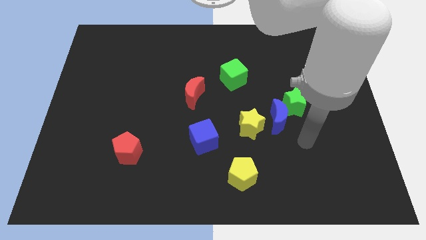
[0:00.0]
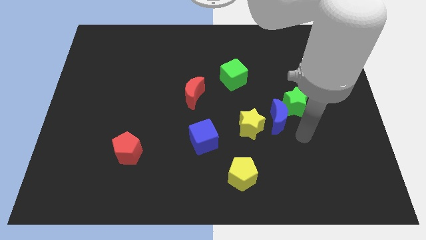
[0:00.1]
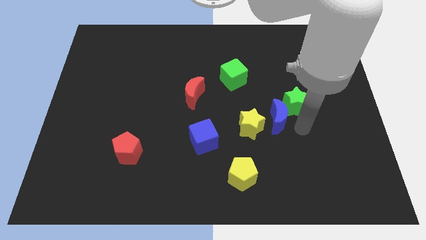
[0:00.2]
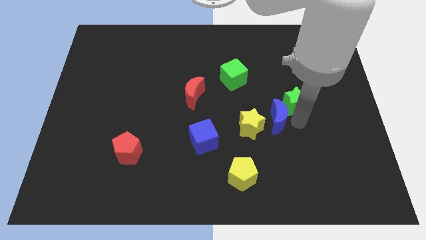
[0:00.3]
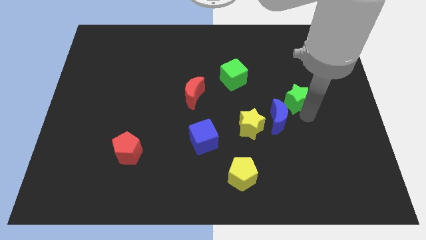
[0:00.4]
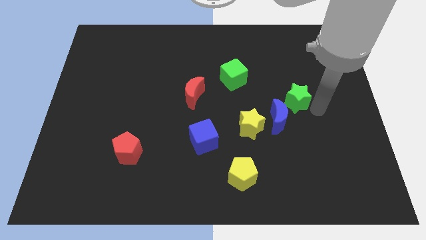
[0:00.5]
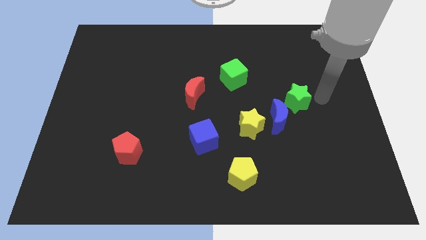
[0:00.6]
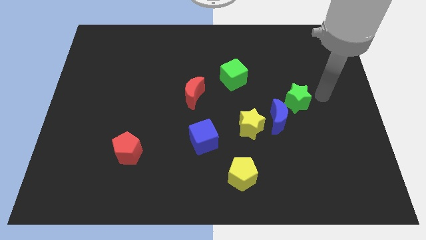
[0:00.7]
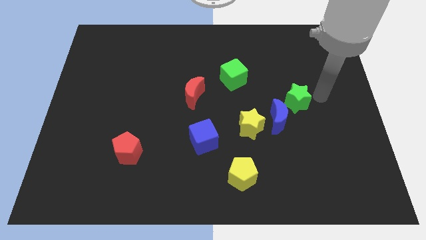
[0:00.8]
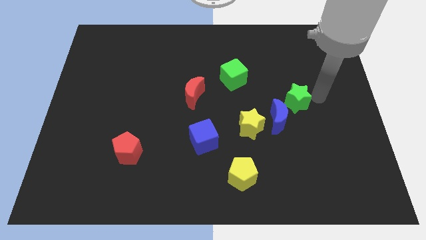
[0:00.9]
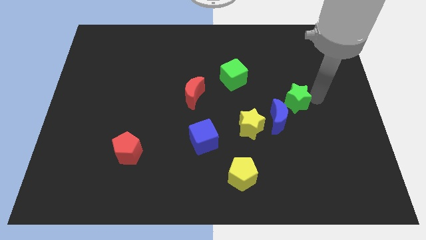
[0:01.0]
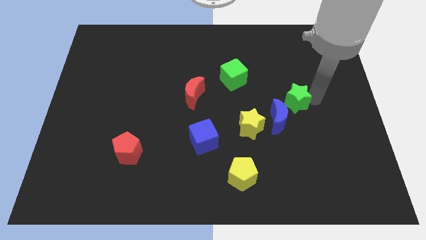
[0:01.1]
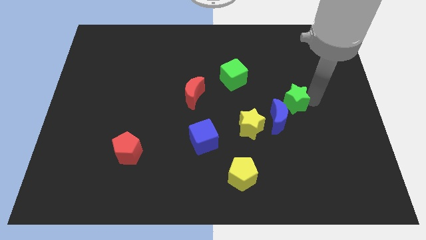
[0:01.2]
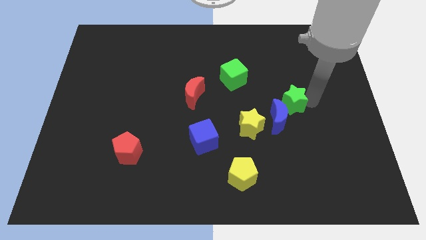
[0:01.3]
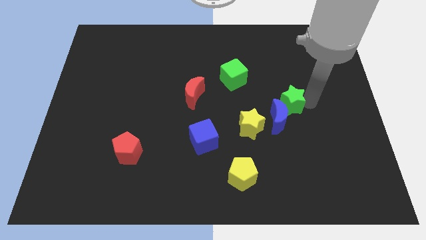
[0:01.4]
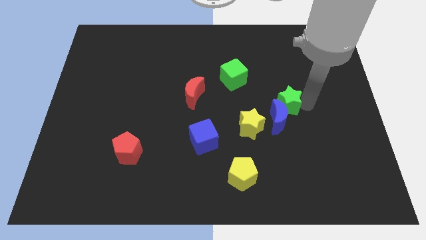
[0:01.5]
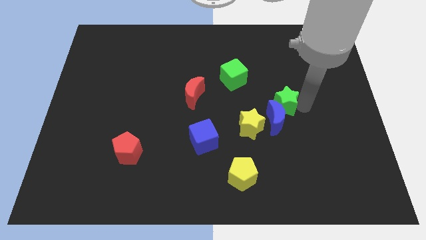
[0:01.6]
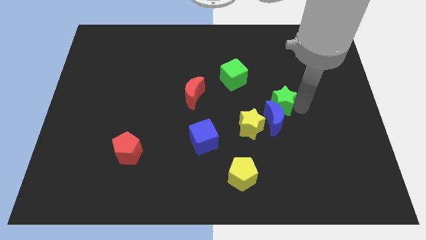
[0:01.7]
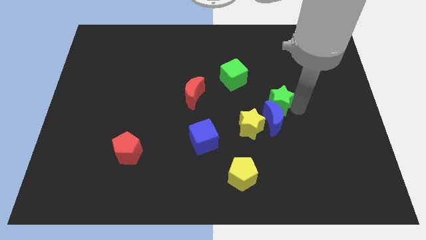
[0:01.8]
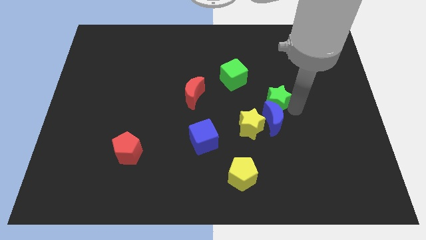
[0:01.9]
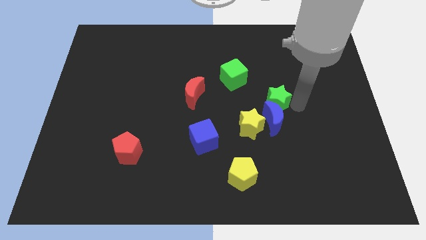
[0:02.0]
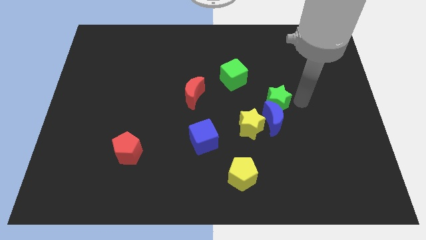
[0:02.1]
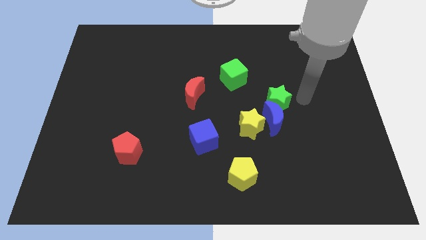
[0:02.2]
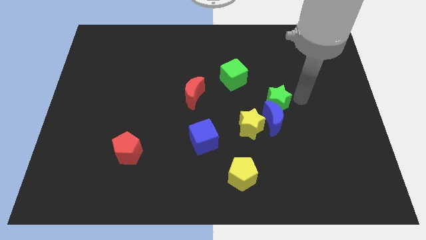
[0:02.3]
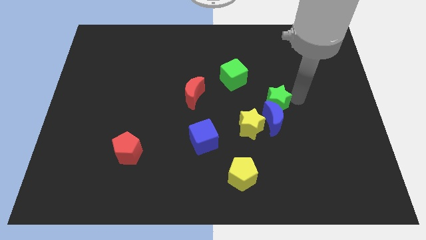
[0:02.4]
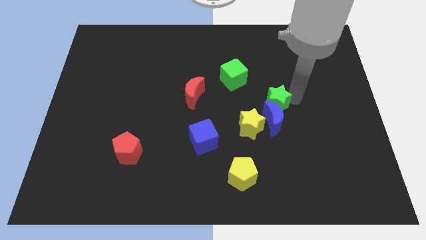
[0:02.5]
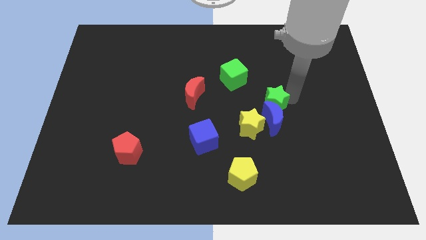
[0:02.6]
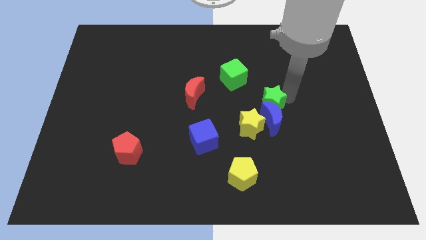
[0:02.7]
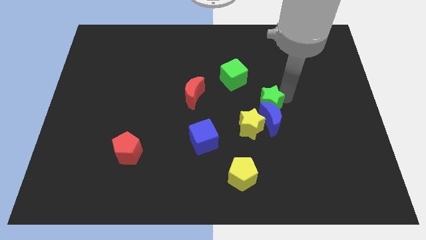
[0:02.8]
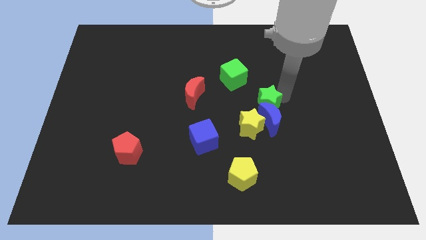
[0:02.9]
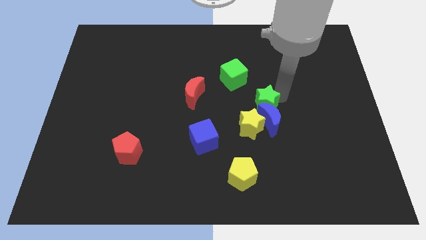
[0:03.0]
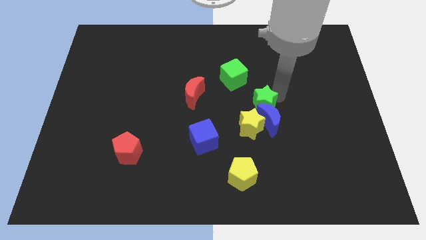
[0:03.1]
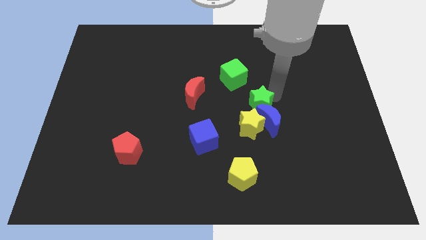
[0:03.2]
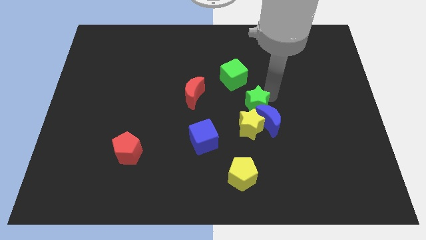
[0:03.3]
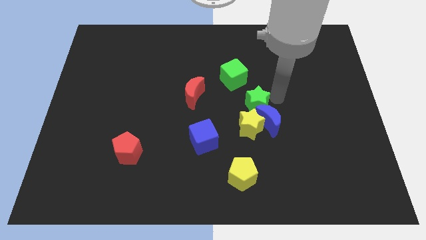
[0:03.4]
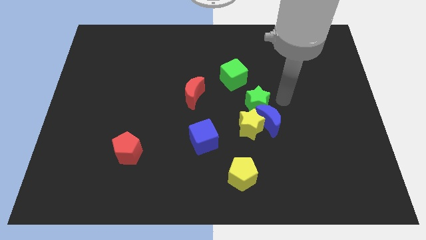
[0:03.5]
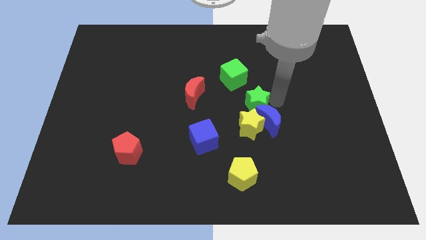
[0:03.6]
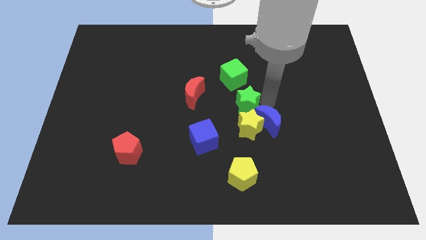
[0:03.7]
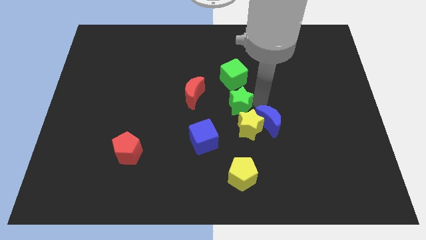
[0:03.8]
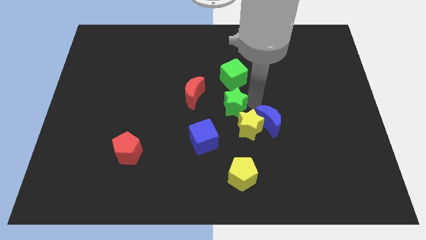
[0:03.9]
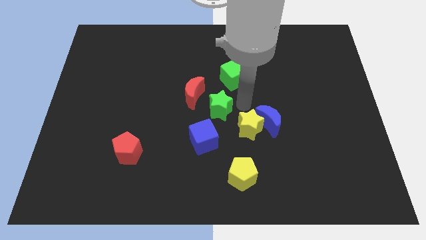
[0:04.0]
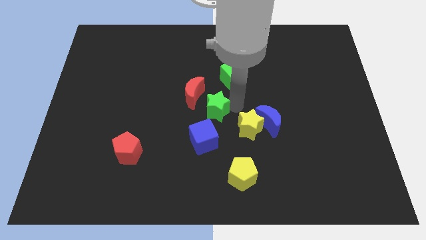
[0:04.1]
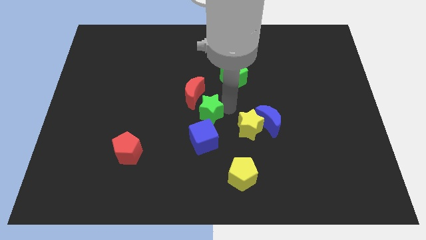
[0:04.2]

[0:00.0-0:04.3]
move the green star to the left

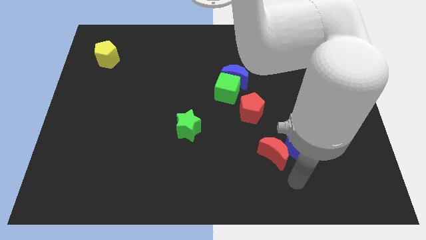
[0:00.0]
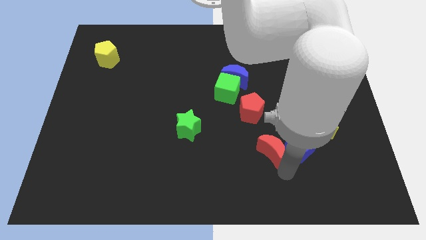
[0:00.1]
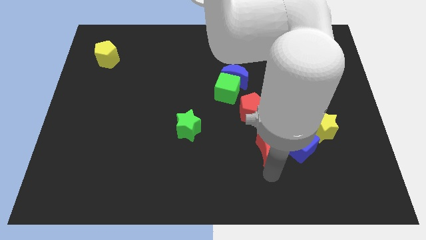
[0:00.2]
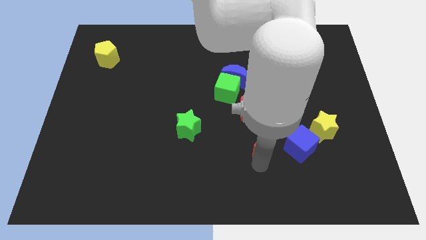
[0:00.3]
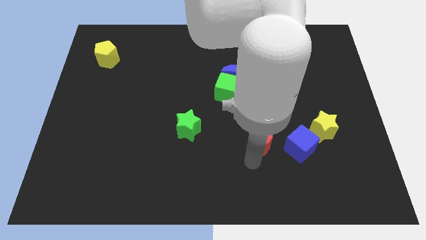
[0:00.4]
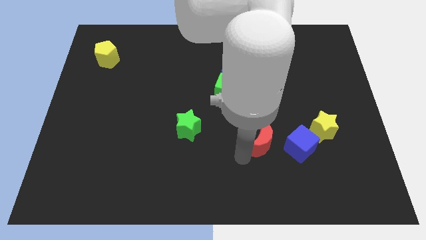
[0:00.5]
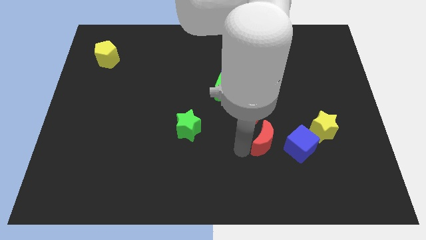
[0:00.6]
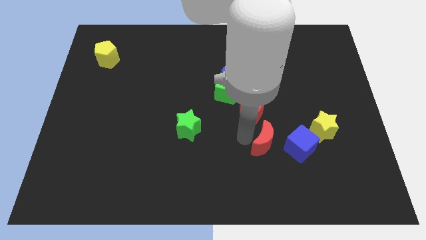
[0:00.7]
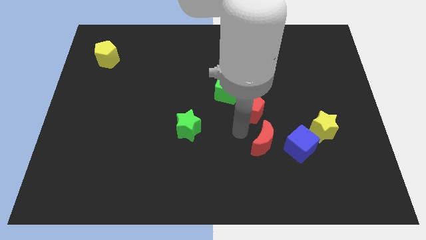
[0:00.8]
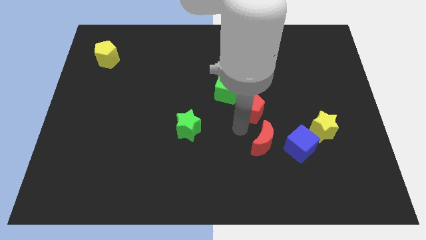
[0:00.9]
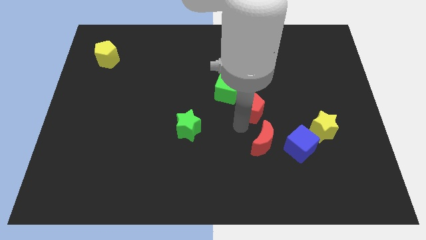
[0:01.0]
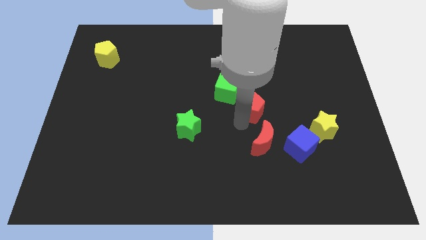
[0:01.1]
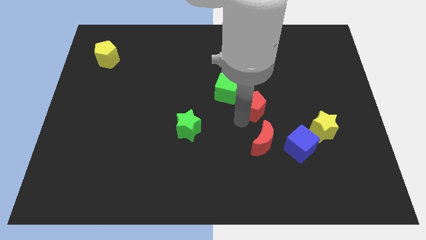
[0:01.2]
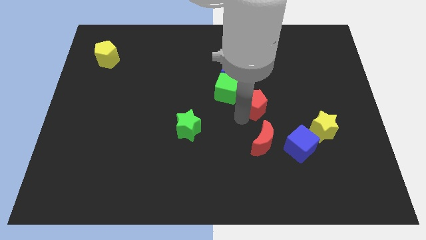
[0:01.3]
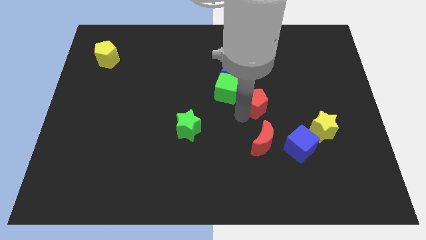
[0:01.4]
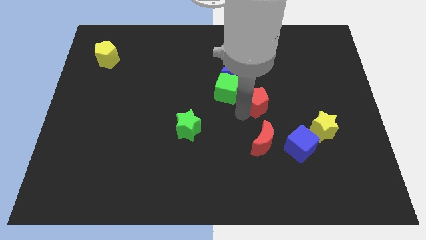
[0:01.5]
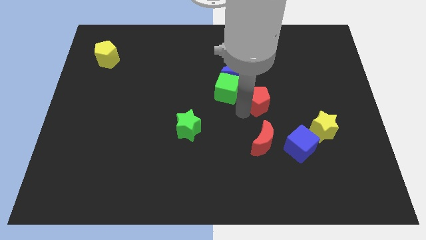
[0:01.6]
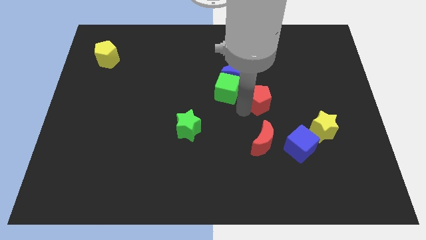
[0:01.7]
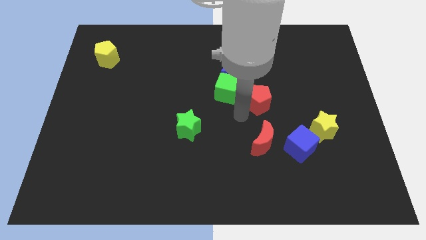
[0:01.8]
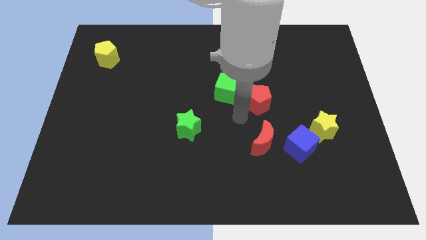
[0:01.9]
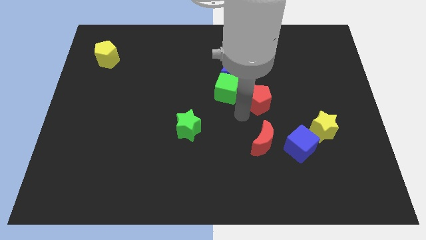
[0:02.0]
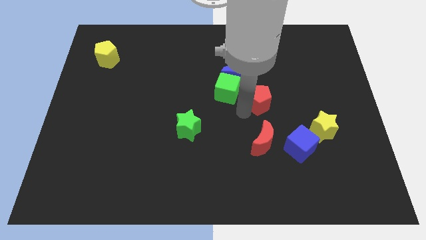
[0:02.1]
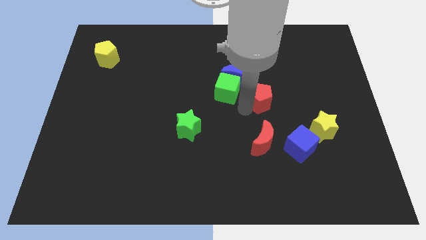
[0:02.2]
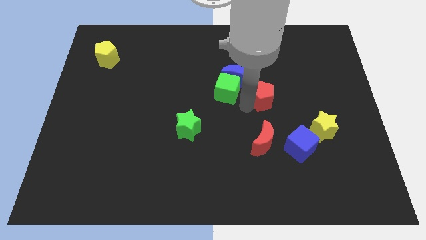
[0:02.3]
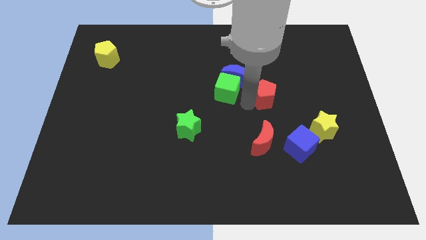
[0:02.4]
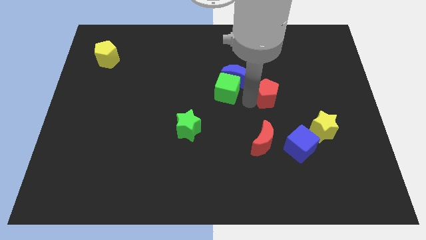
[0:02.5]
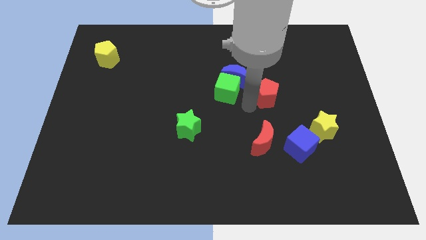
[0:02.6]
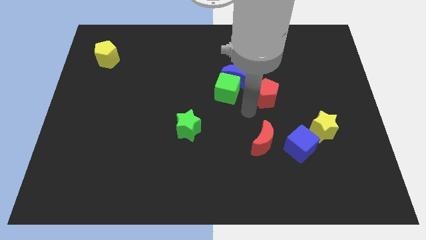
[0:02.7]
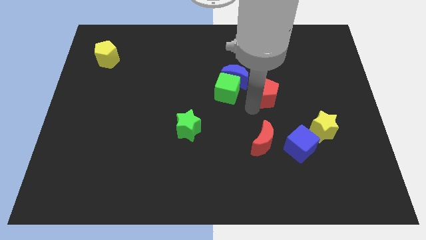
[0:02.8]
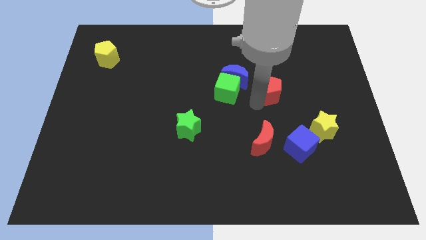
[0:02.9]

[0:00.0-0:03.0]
move the red pentagon up and right somewhat

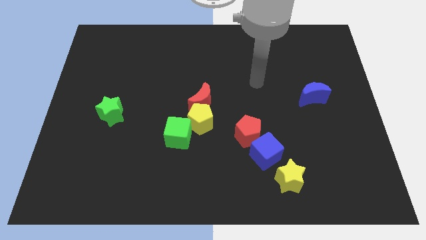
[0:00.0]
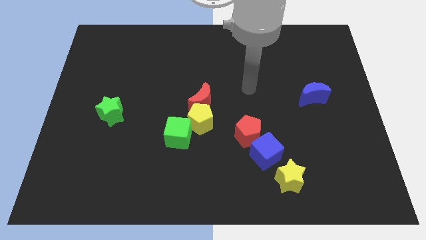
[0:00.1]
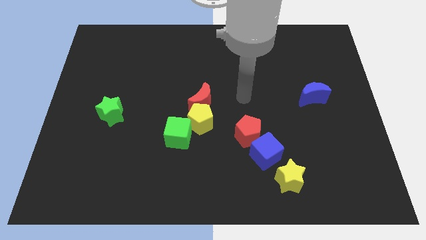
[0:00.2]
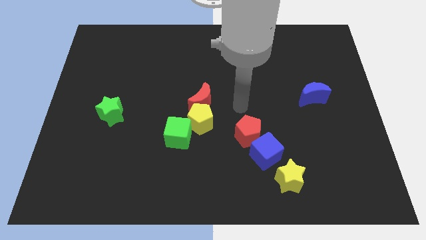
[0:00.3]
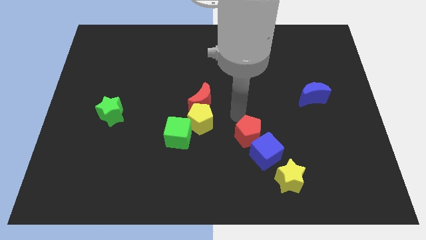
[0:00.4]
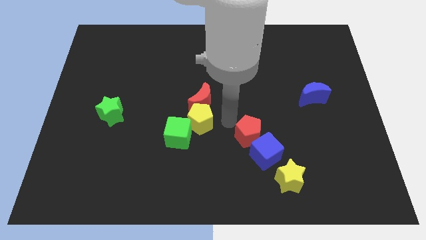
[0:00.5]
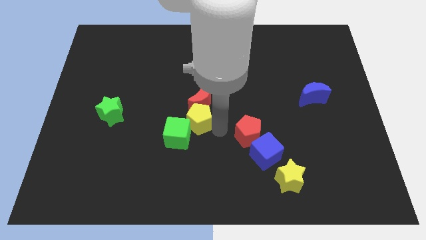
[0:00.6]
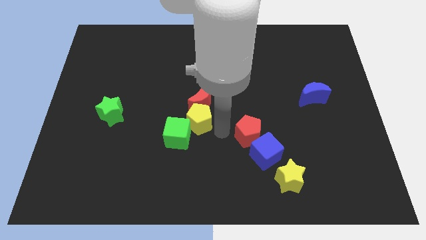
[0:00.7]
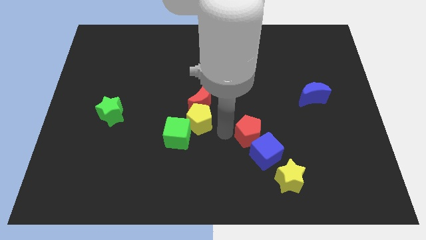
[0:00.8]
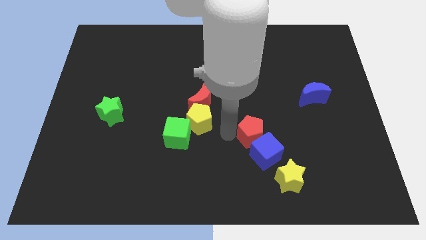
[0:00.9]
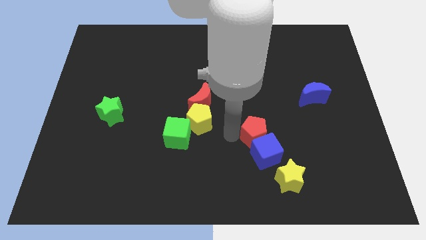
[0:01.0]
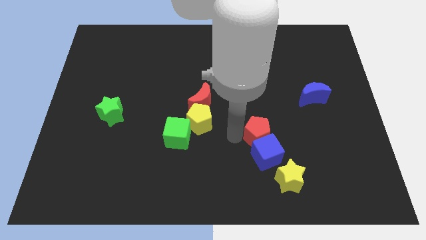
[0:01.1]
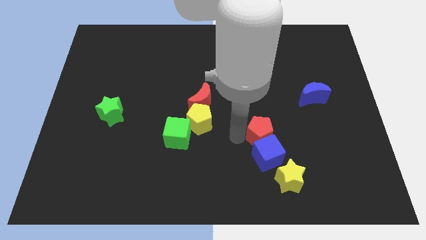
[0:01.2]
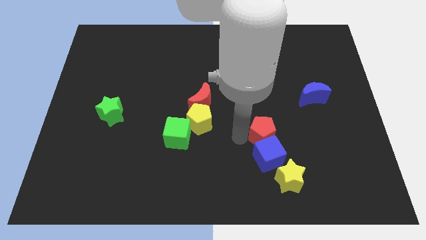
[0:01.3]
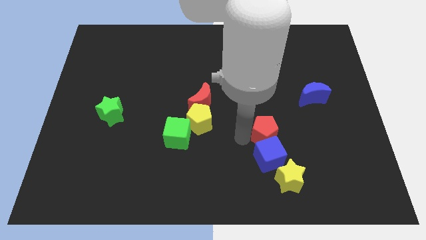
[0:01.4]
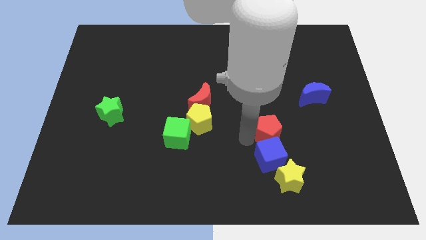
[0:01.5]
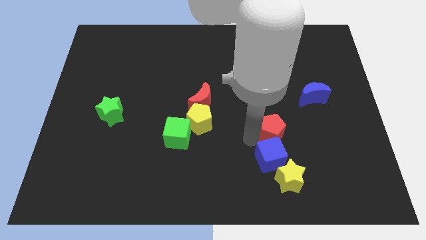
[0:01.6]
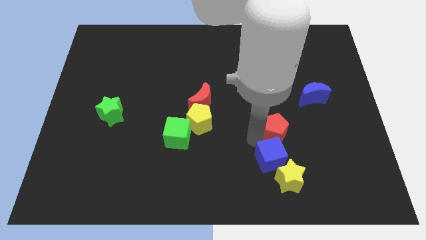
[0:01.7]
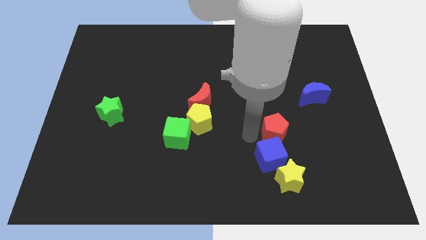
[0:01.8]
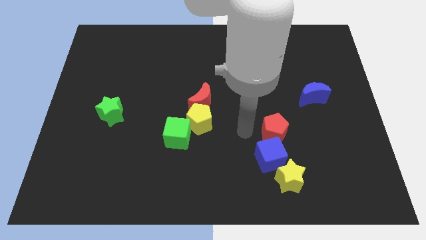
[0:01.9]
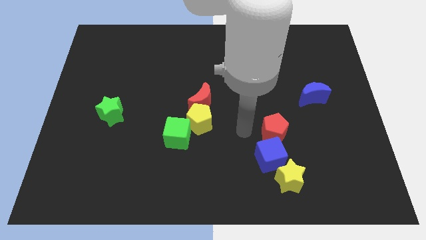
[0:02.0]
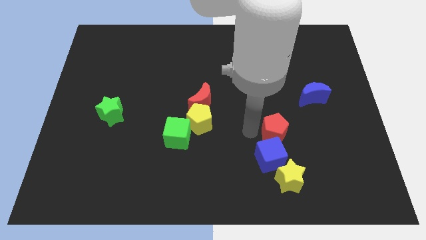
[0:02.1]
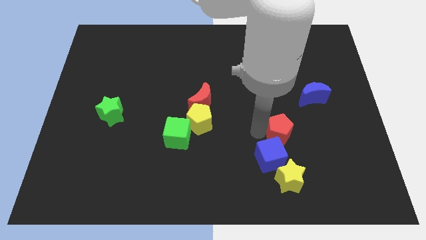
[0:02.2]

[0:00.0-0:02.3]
slide the red pentagon right a little
